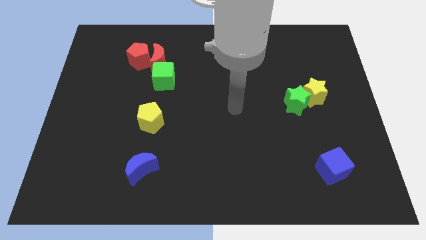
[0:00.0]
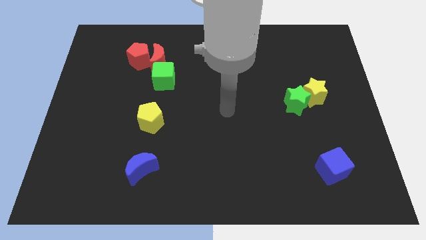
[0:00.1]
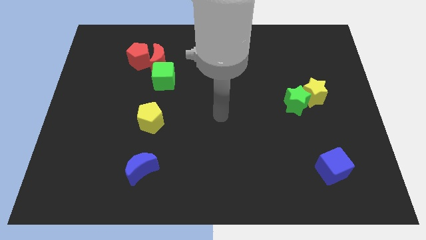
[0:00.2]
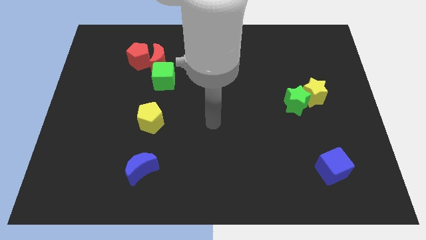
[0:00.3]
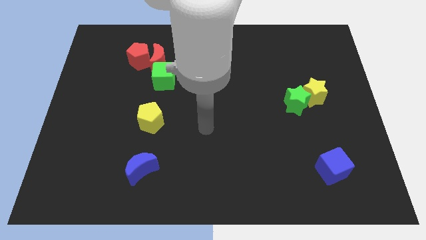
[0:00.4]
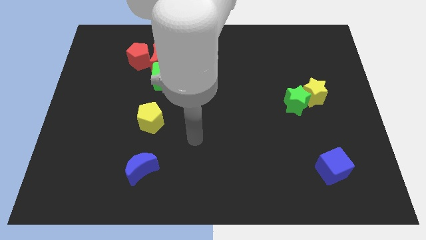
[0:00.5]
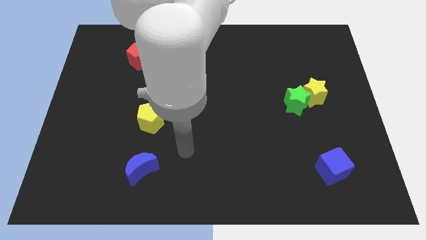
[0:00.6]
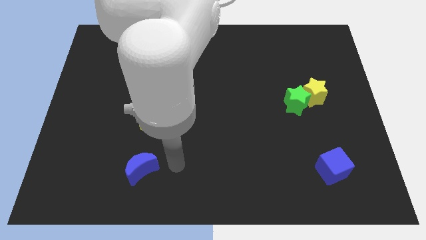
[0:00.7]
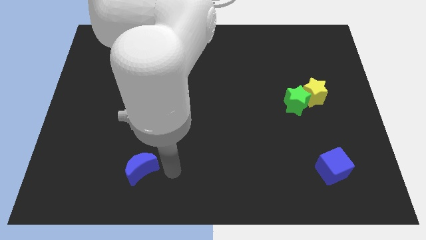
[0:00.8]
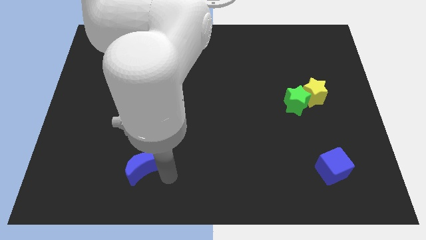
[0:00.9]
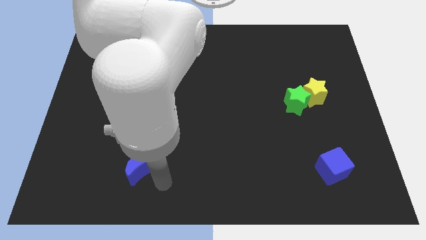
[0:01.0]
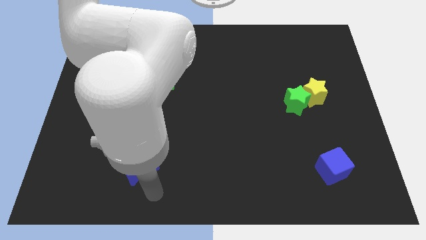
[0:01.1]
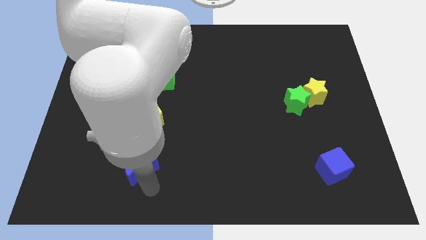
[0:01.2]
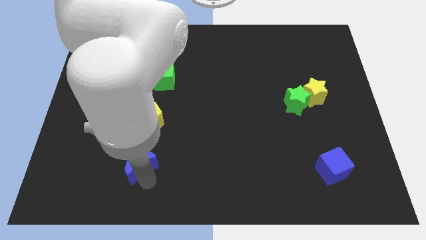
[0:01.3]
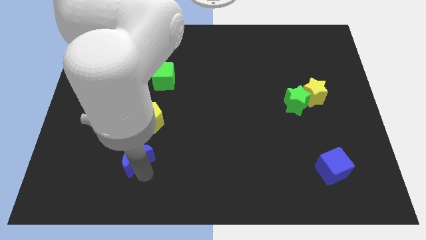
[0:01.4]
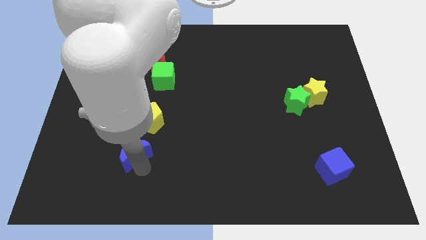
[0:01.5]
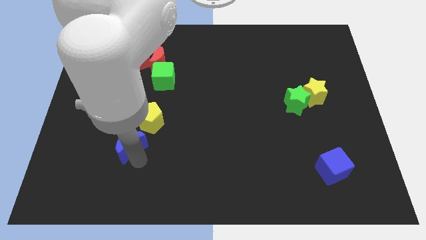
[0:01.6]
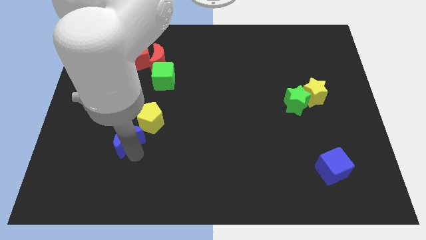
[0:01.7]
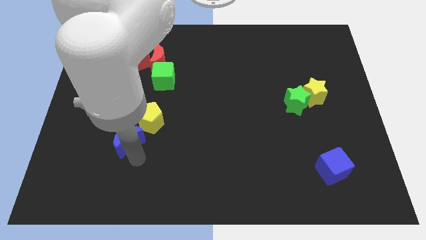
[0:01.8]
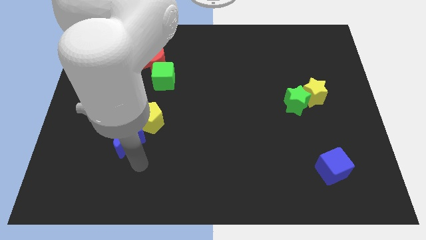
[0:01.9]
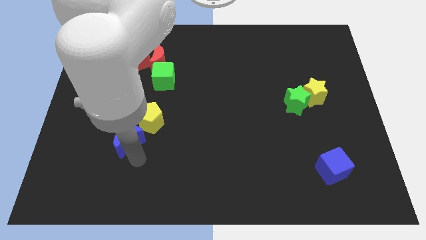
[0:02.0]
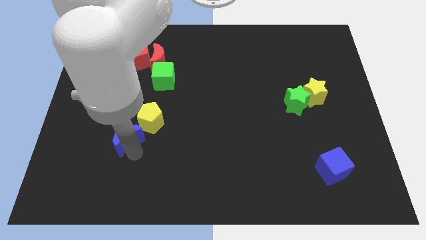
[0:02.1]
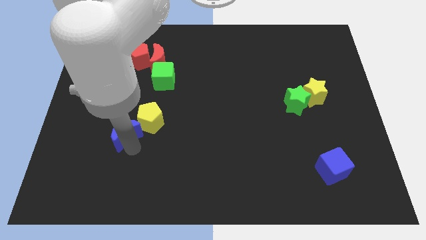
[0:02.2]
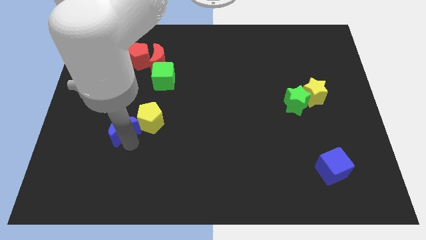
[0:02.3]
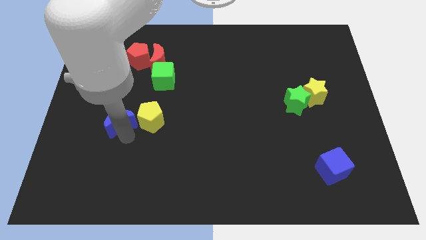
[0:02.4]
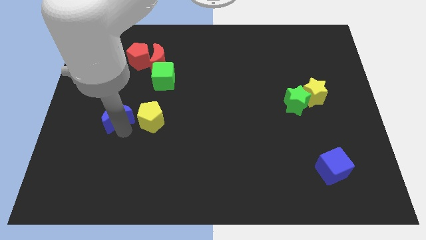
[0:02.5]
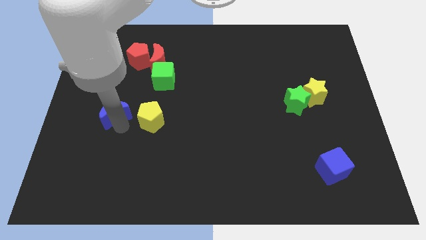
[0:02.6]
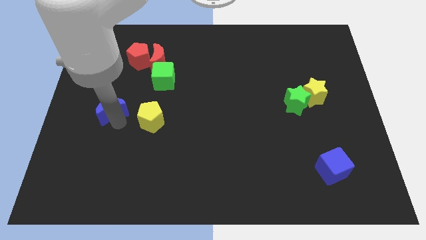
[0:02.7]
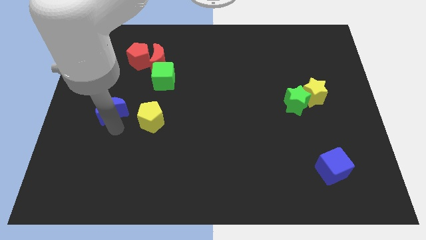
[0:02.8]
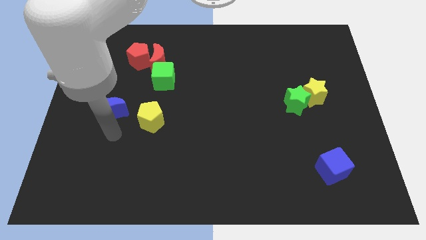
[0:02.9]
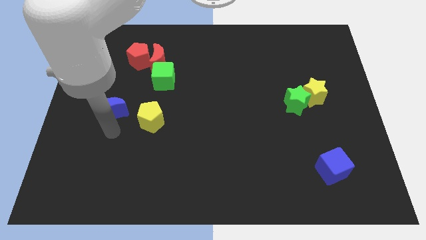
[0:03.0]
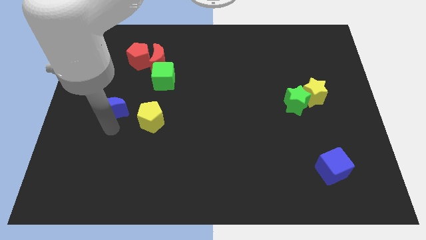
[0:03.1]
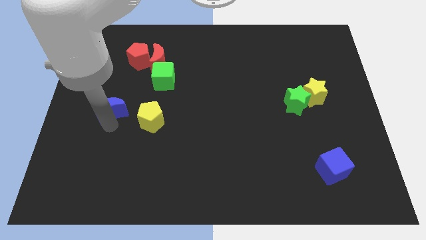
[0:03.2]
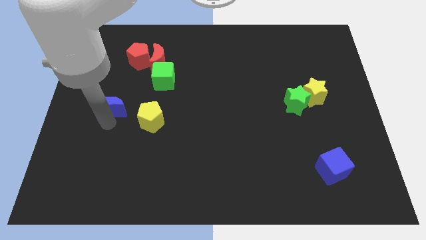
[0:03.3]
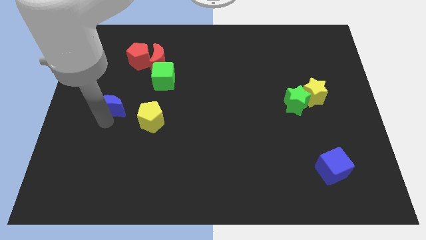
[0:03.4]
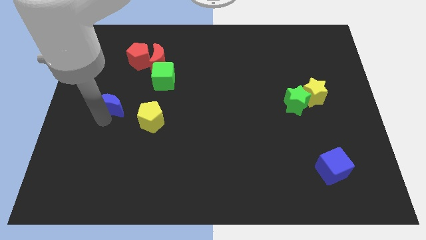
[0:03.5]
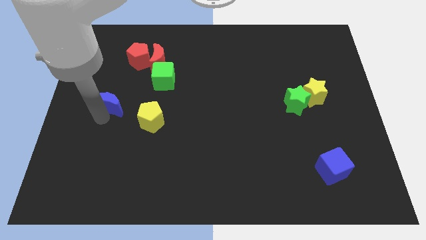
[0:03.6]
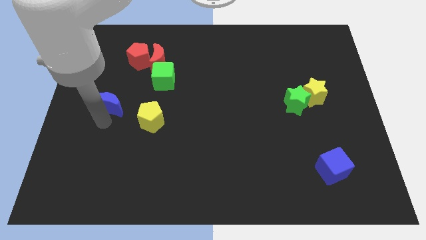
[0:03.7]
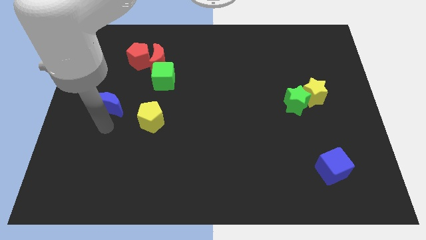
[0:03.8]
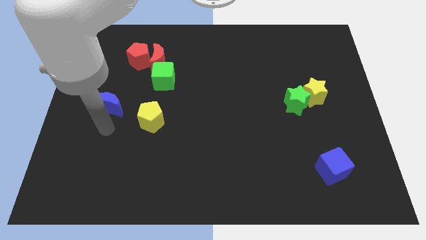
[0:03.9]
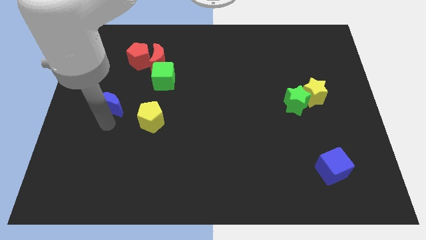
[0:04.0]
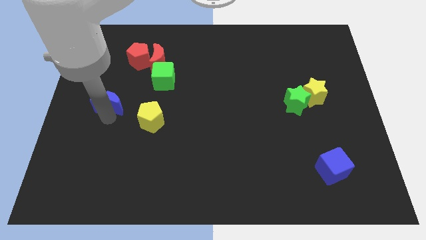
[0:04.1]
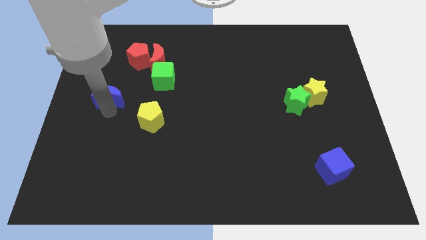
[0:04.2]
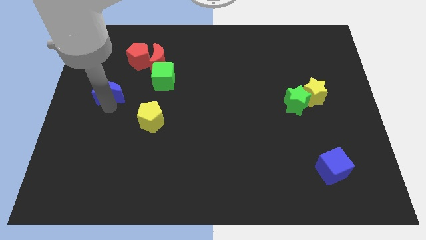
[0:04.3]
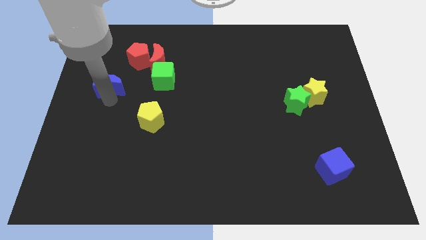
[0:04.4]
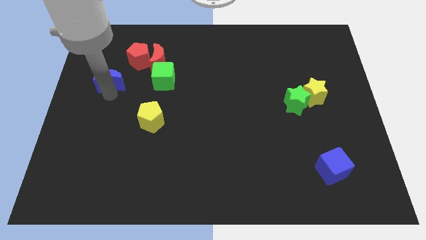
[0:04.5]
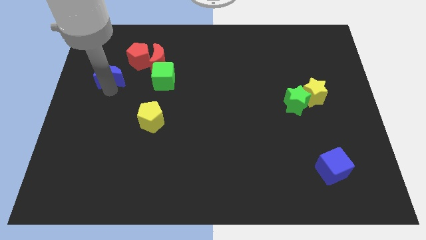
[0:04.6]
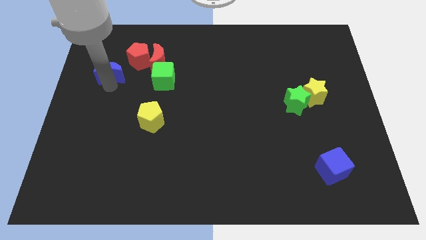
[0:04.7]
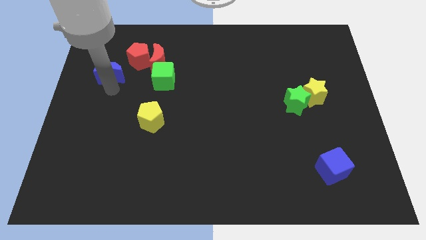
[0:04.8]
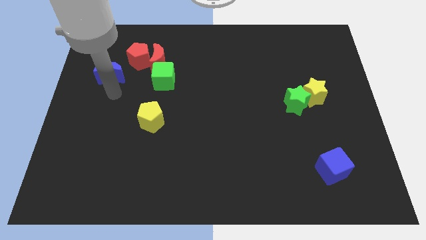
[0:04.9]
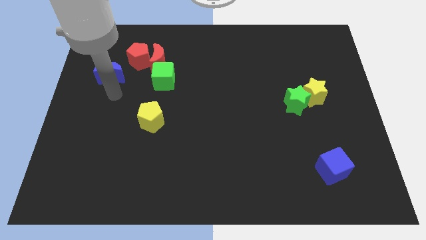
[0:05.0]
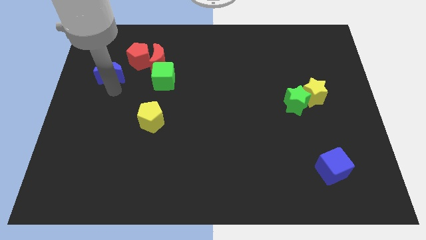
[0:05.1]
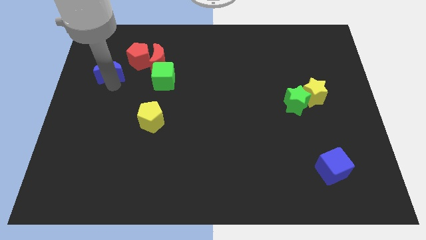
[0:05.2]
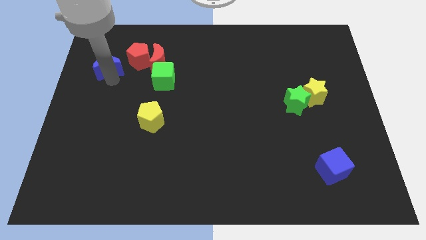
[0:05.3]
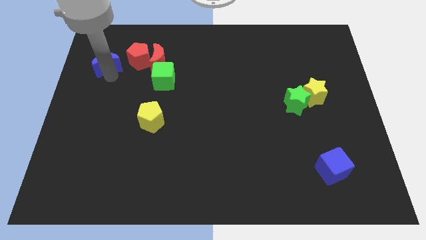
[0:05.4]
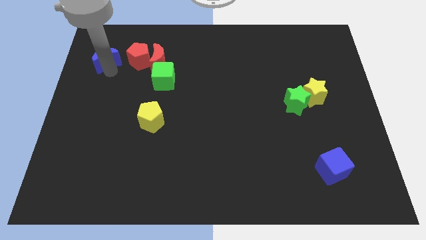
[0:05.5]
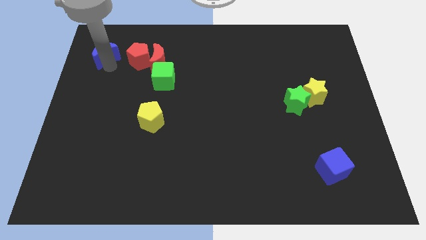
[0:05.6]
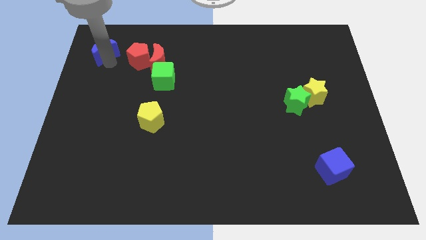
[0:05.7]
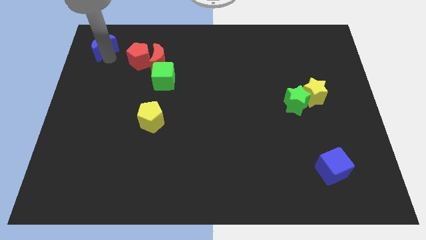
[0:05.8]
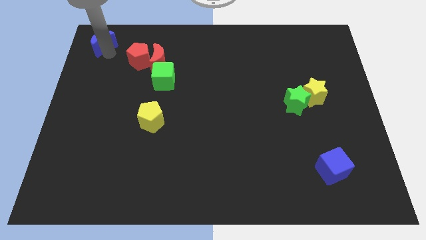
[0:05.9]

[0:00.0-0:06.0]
move the blue moon to the upper left corner

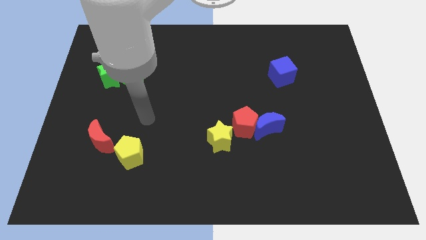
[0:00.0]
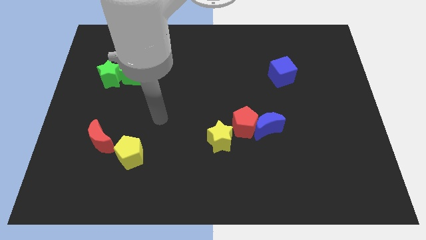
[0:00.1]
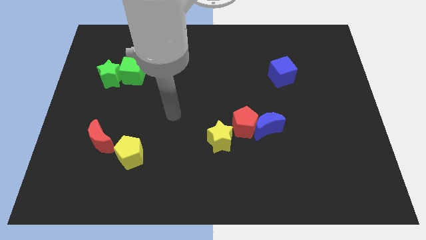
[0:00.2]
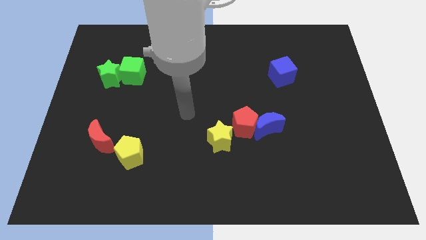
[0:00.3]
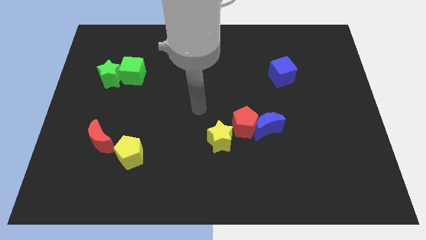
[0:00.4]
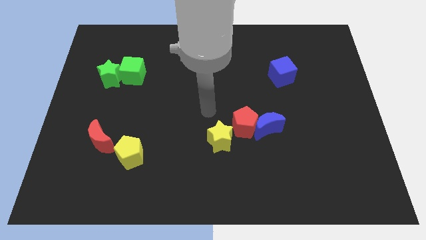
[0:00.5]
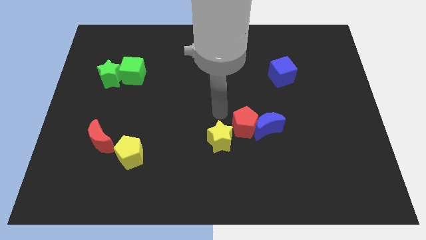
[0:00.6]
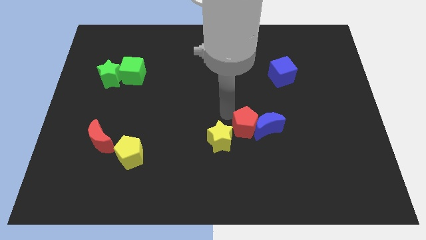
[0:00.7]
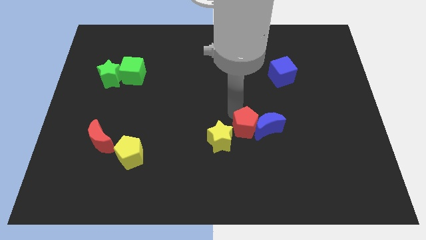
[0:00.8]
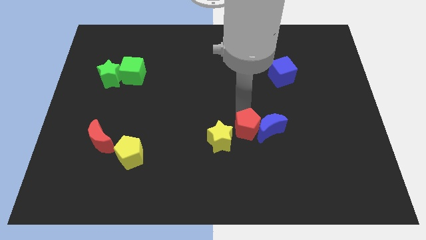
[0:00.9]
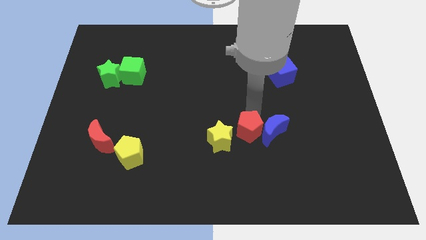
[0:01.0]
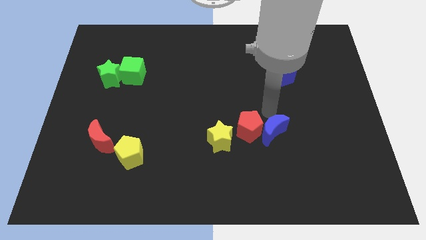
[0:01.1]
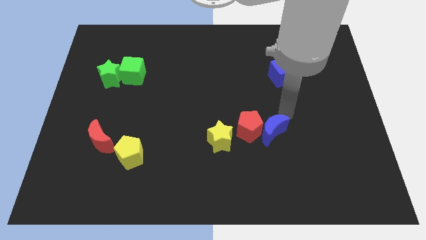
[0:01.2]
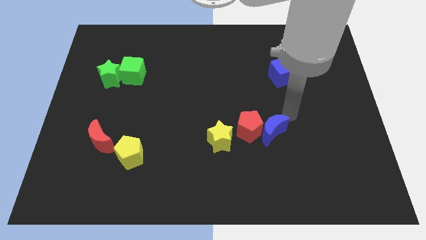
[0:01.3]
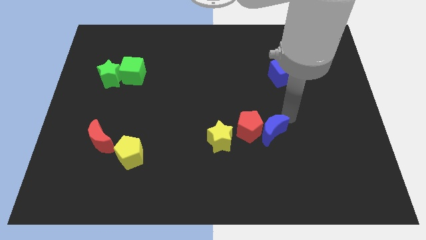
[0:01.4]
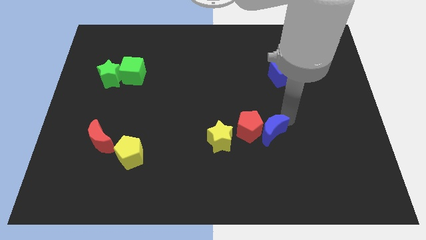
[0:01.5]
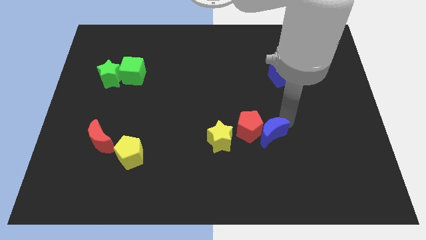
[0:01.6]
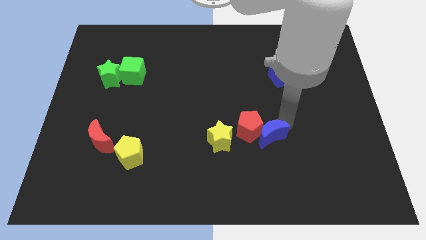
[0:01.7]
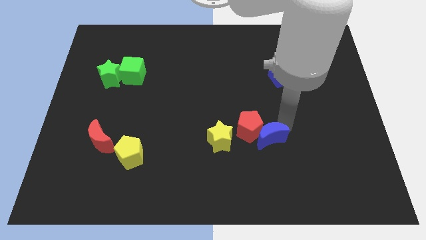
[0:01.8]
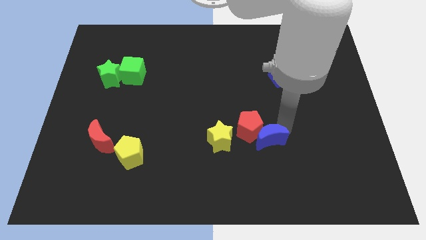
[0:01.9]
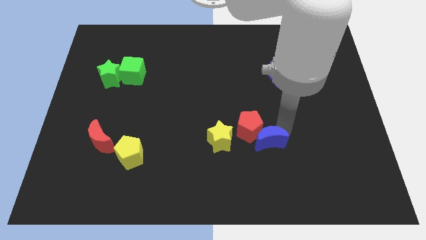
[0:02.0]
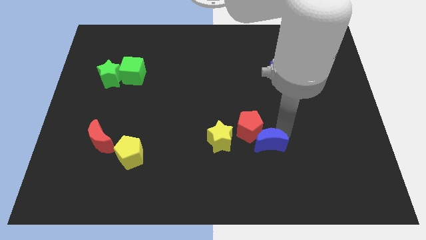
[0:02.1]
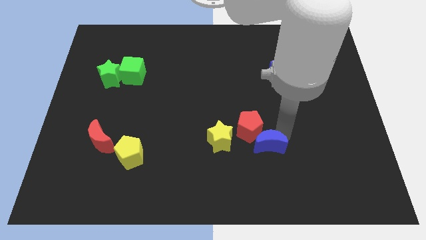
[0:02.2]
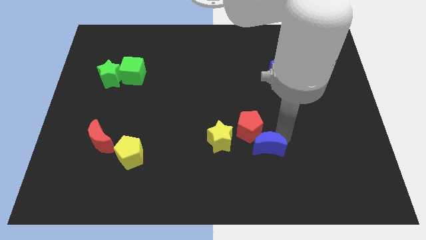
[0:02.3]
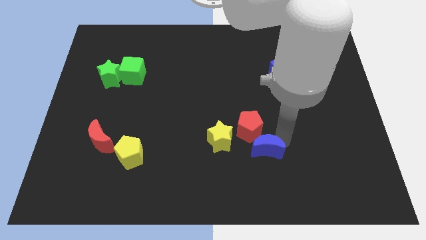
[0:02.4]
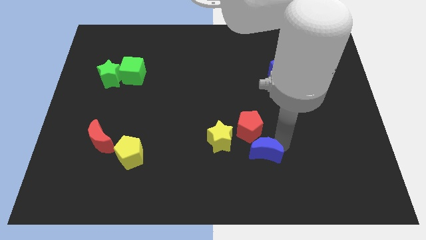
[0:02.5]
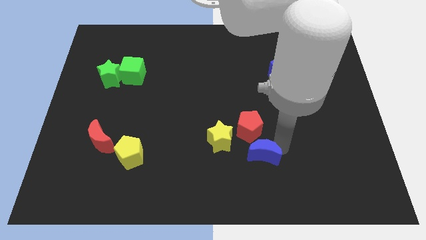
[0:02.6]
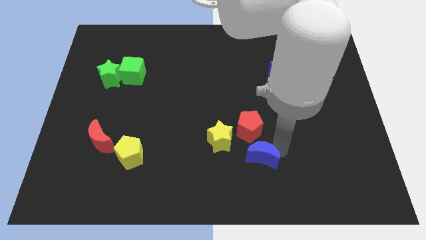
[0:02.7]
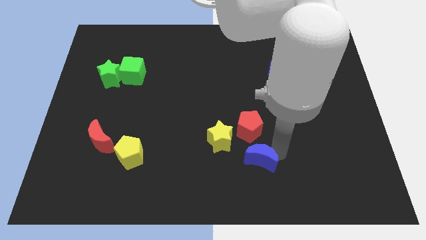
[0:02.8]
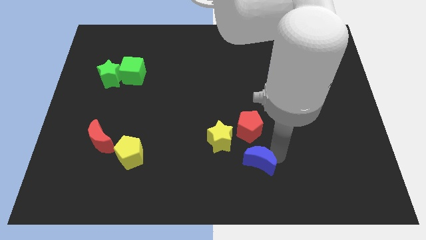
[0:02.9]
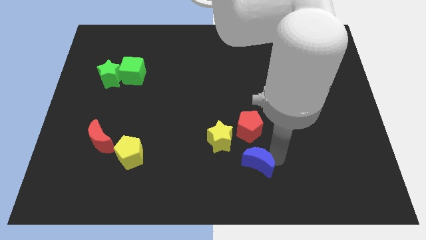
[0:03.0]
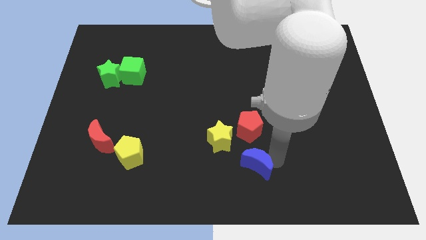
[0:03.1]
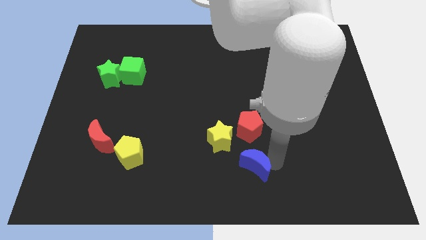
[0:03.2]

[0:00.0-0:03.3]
push the blue moon to the bottom
